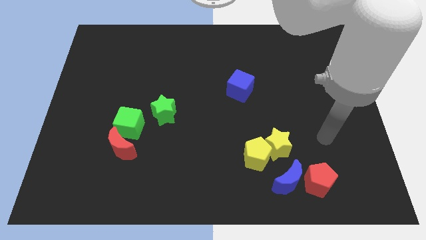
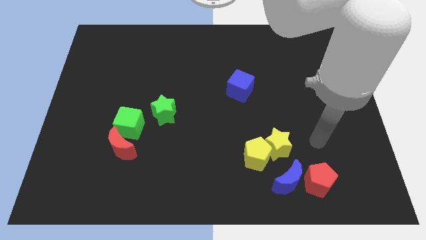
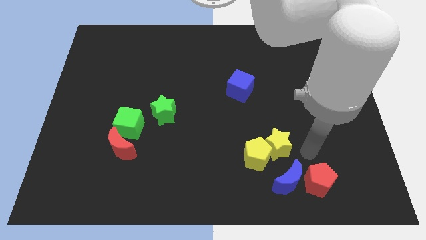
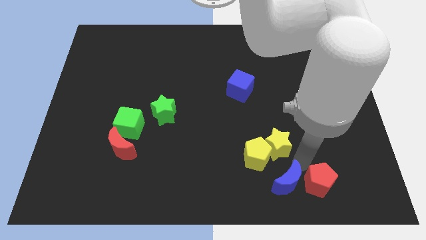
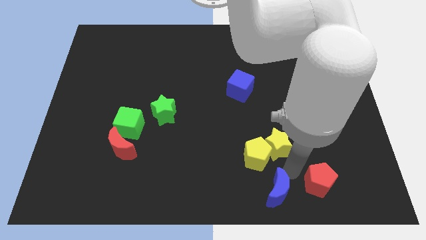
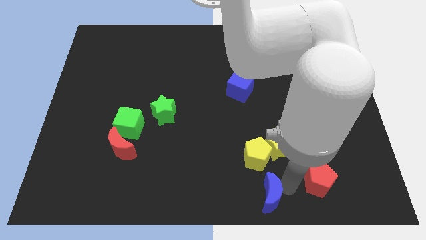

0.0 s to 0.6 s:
pull the red pentagon apart from the blue moon

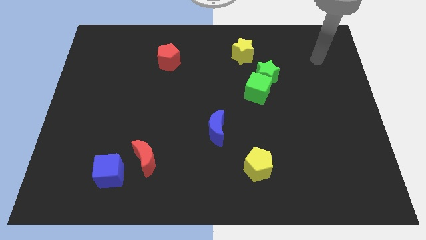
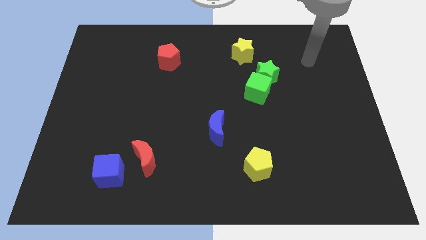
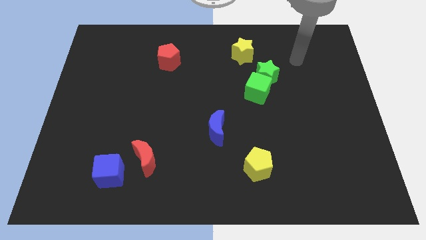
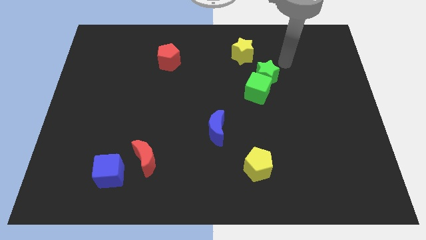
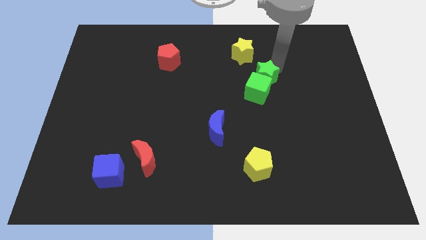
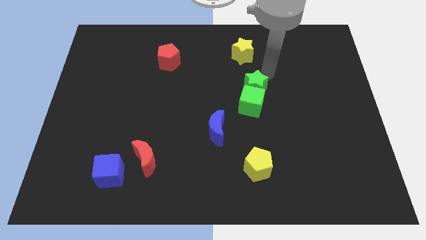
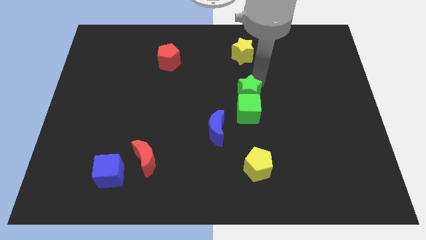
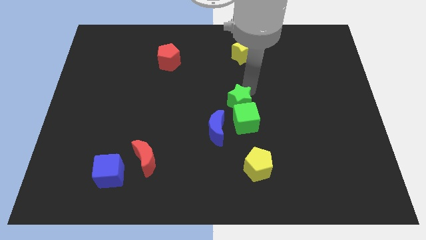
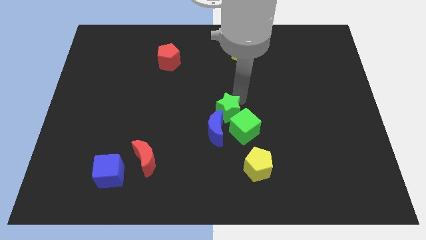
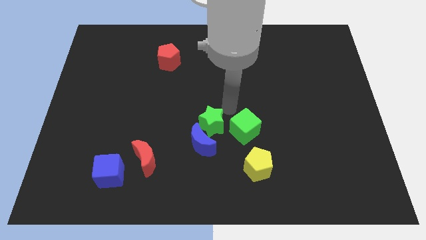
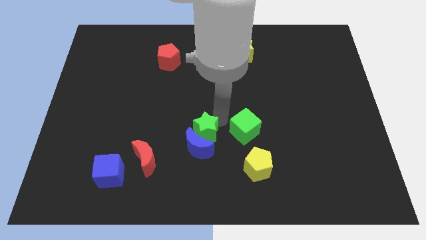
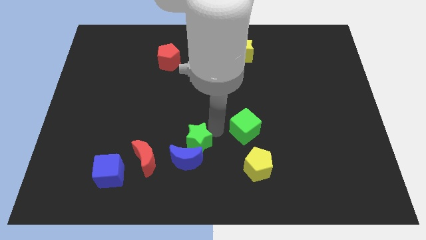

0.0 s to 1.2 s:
separate the green cube from the green star

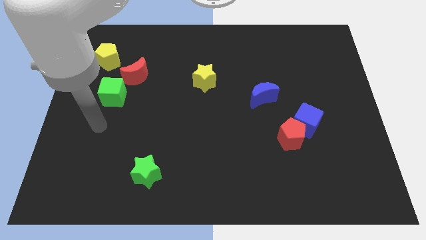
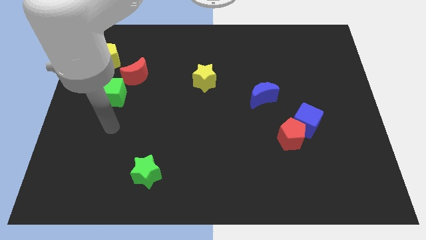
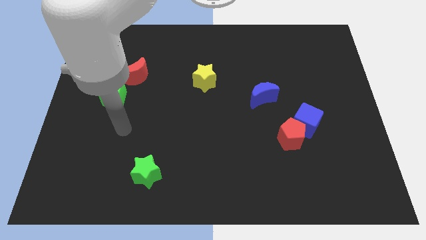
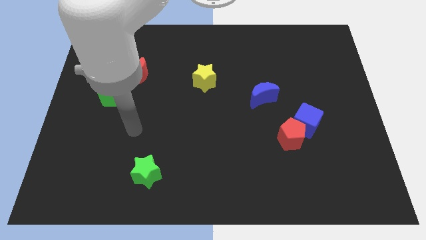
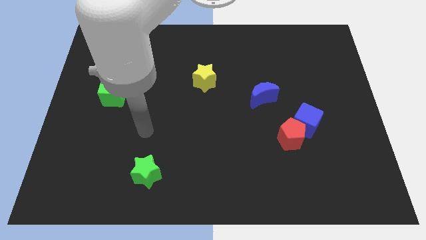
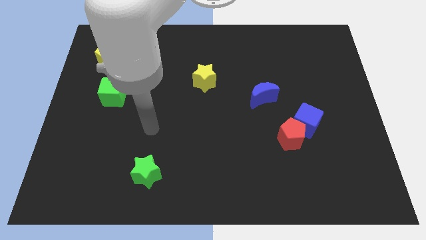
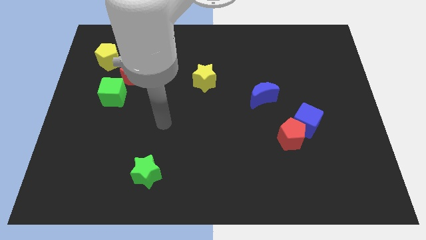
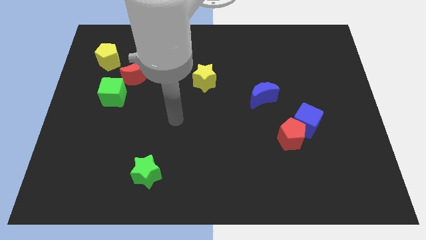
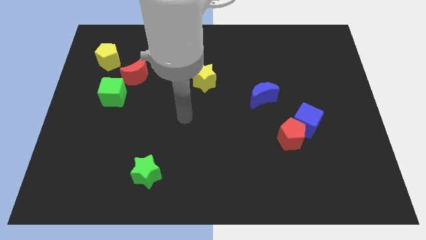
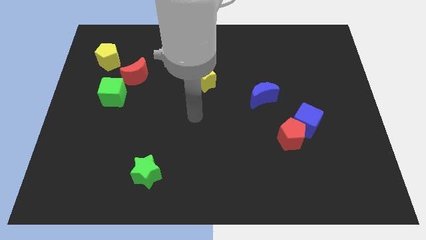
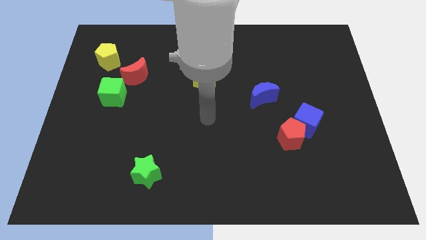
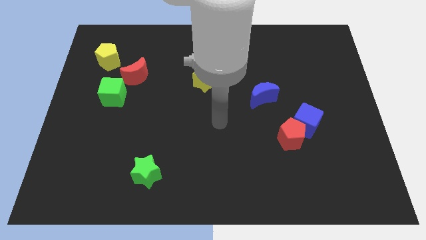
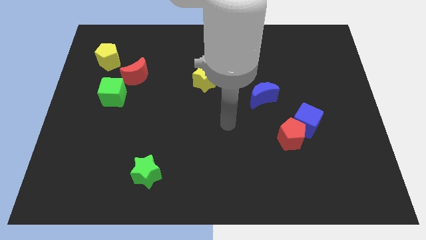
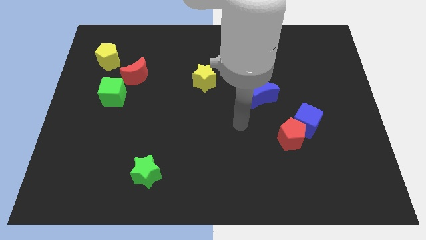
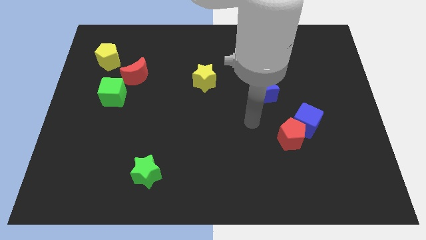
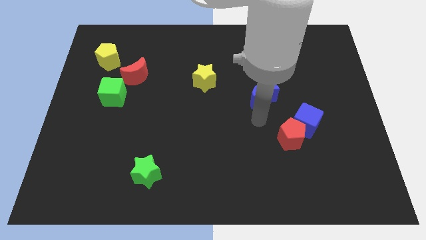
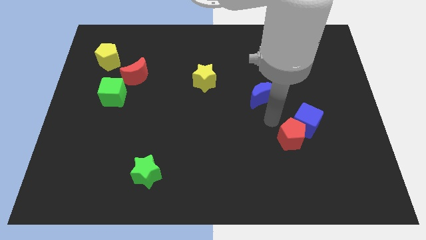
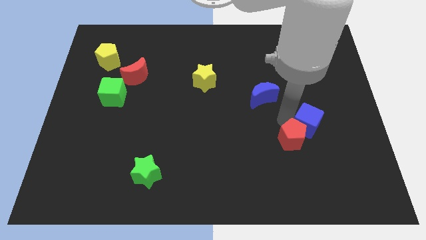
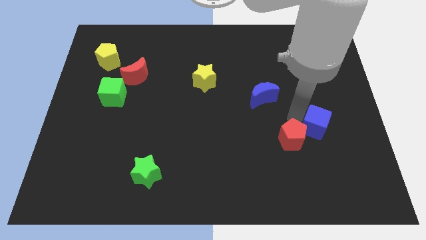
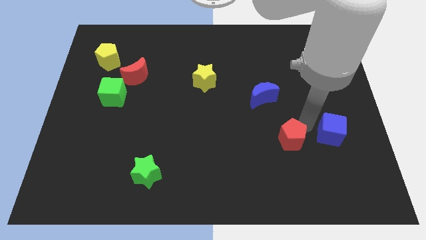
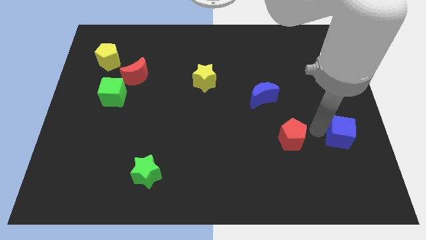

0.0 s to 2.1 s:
pull the red pentagon apart from the blue cube

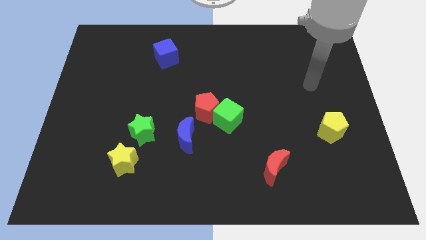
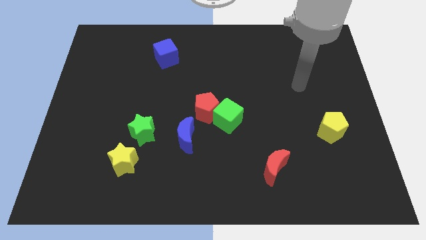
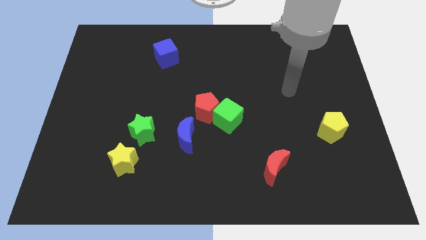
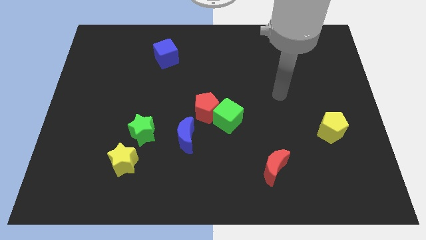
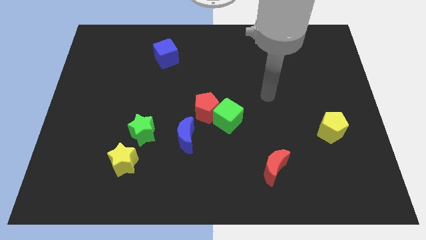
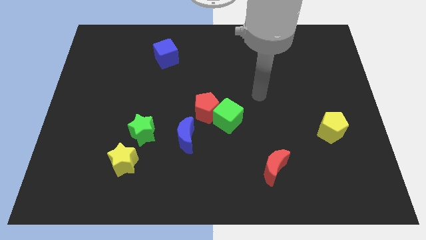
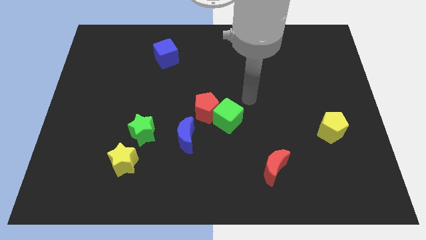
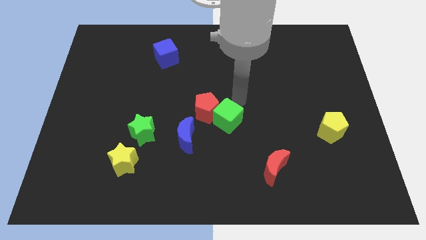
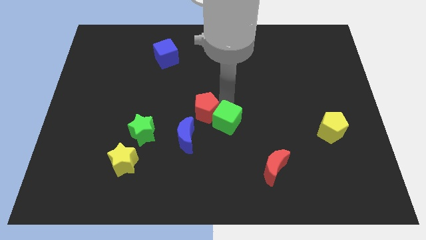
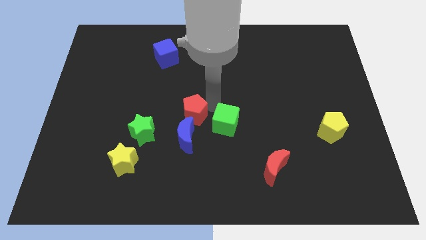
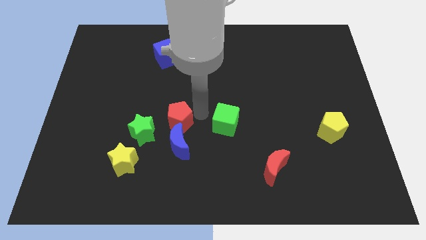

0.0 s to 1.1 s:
separate the green cube from the red pentagon

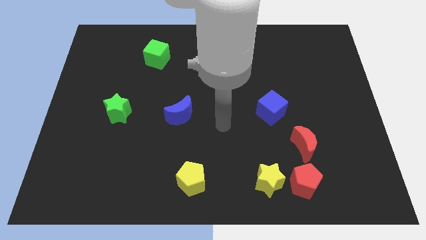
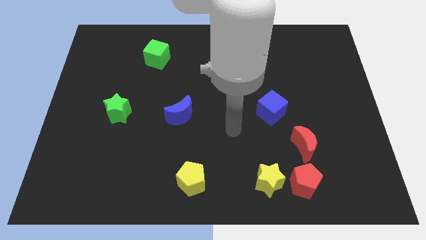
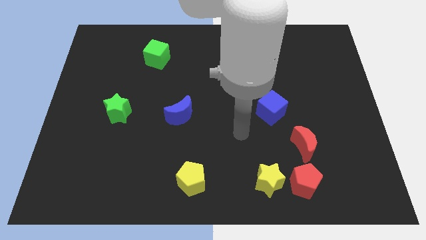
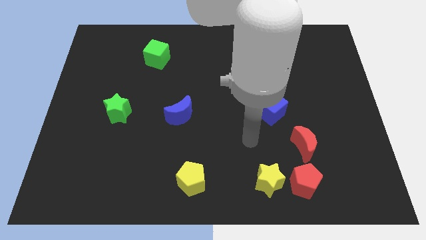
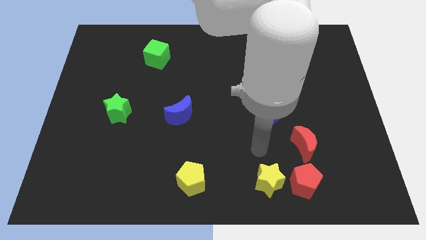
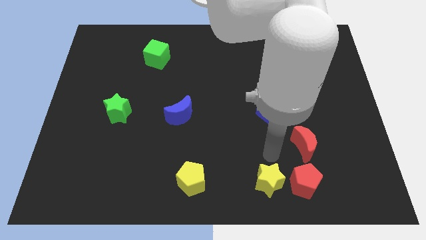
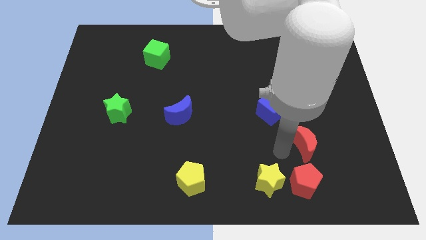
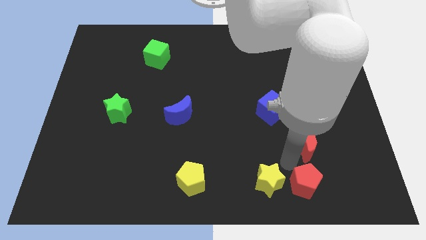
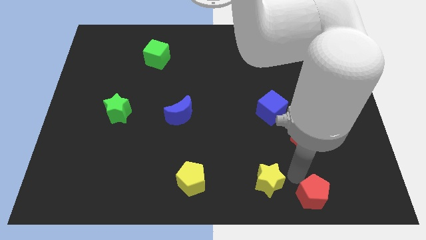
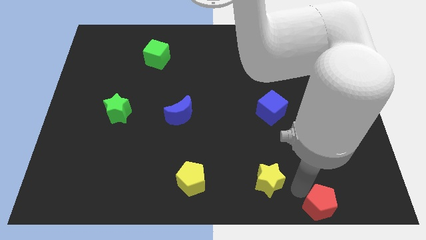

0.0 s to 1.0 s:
separate the yellow star from the red pentagon

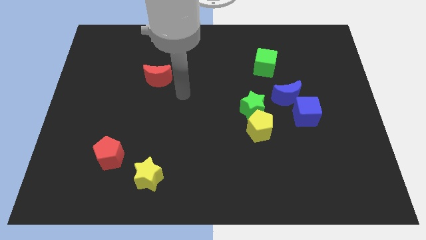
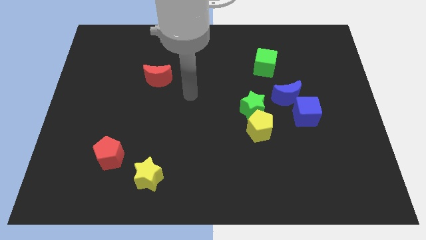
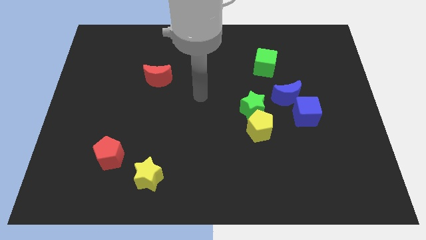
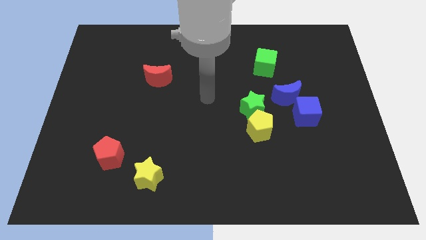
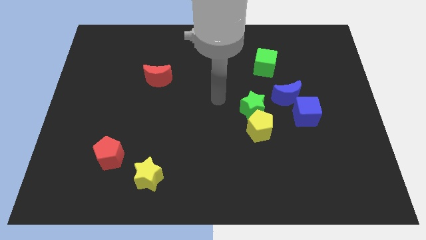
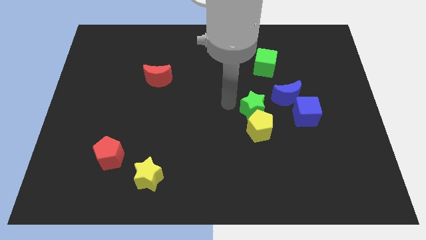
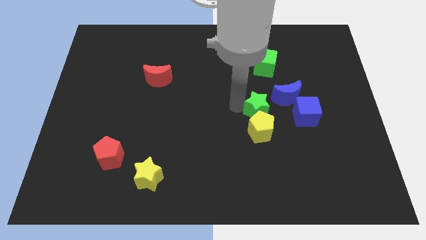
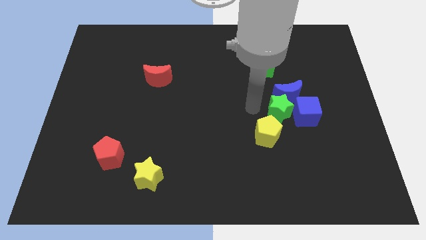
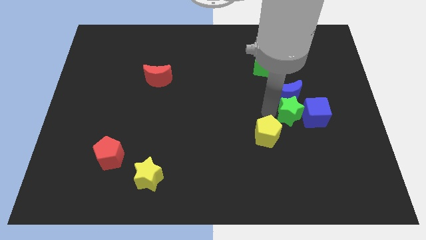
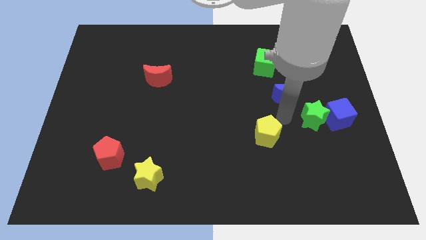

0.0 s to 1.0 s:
separate the yellow pentagon from the green star

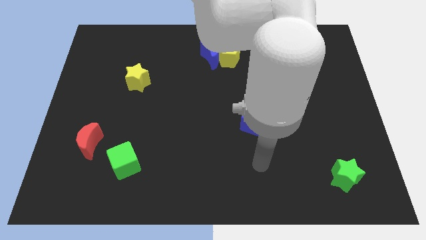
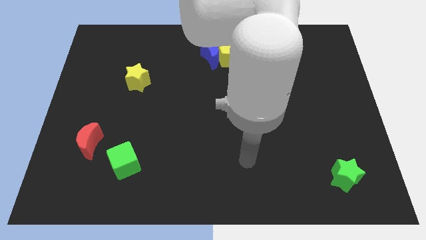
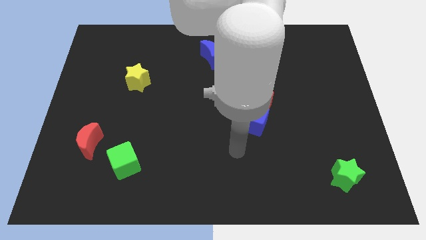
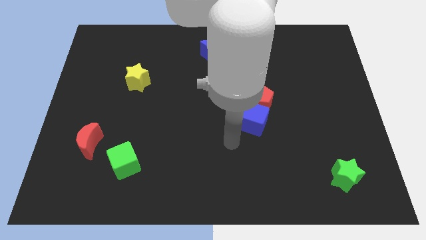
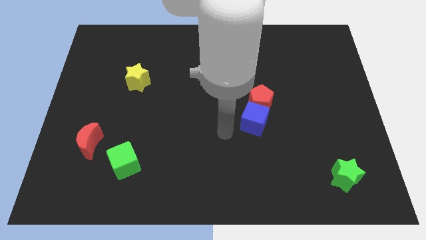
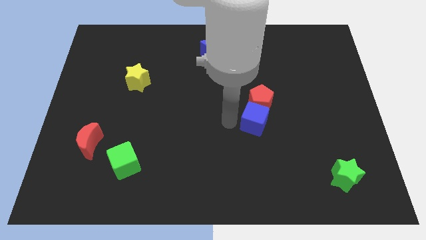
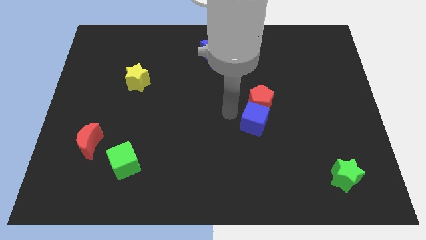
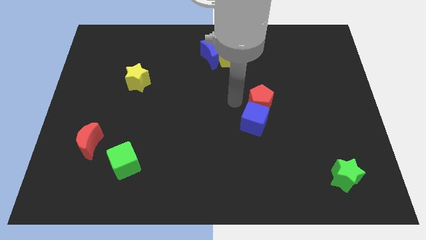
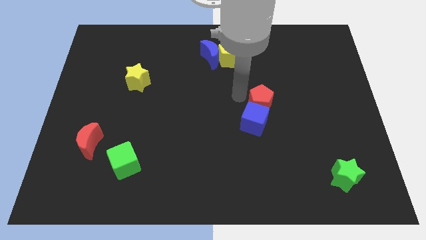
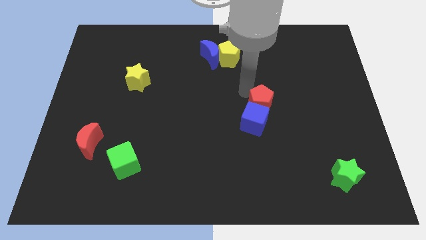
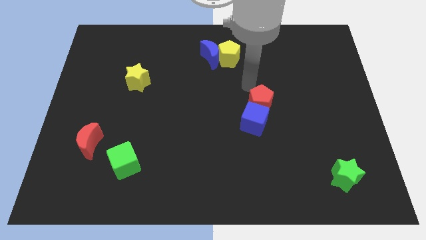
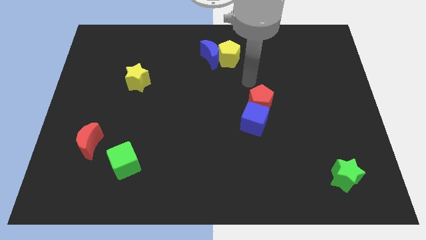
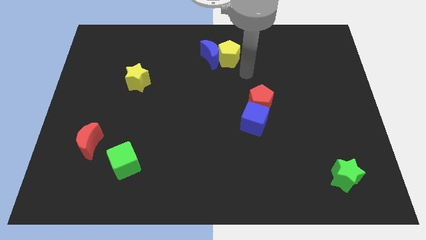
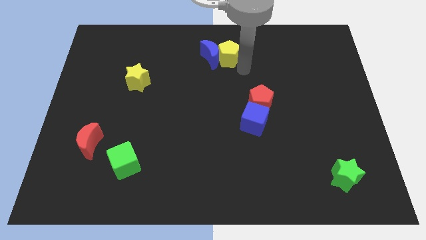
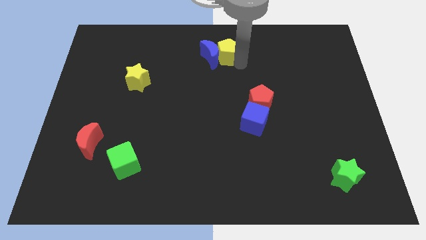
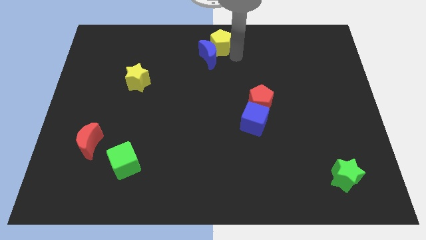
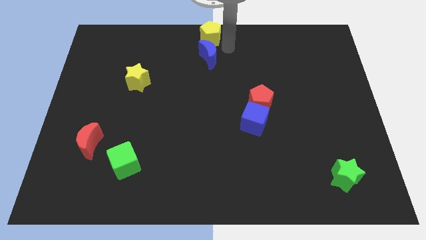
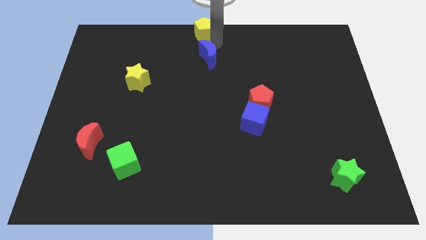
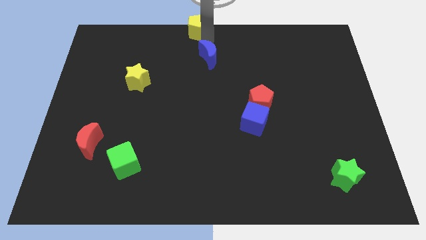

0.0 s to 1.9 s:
pull the blue moon apart from the yellow pentagon

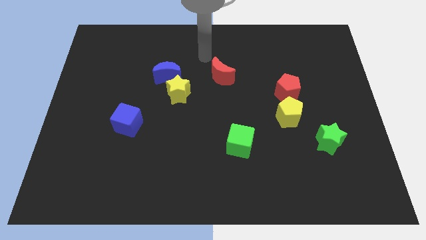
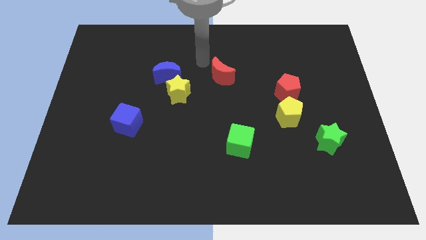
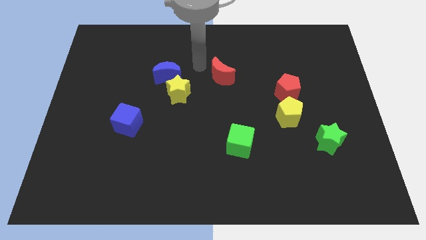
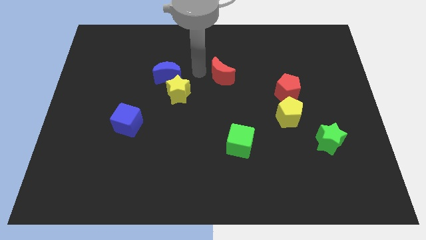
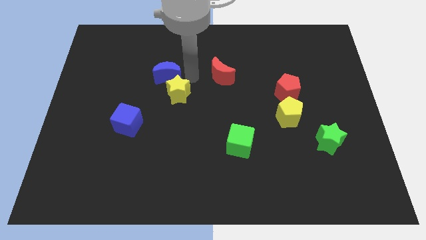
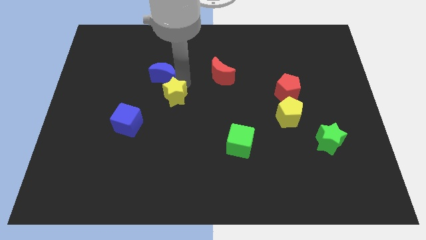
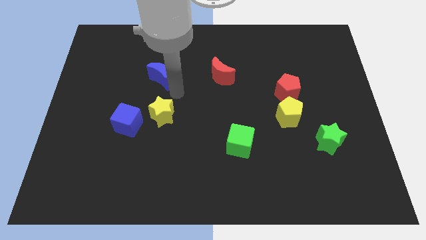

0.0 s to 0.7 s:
separate the blue moon from the yellow star
